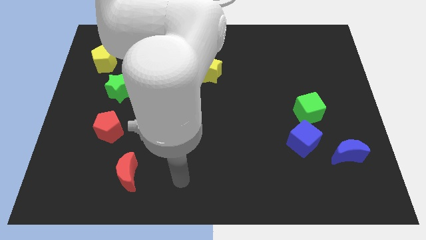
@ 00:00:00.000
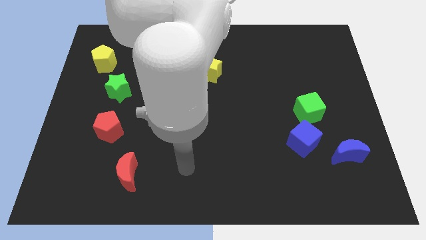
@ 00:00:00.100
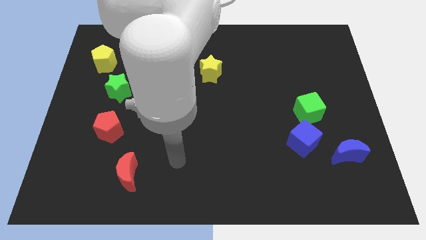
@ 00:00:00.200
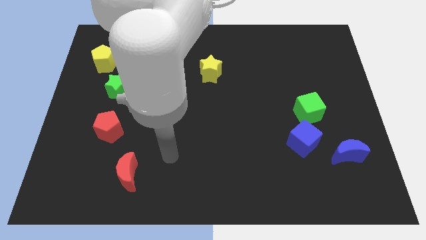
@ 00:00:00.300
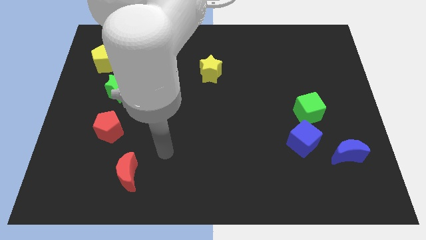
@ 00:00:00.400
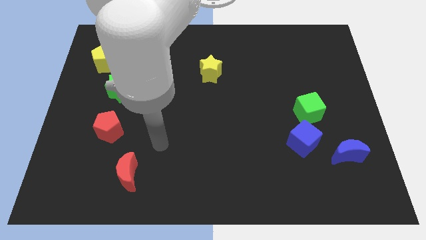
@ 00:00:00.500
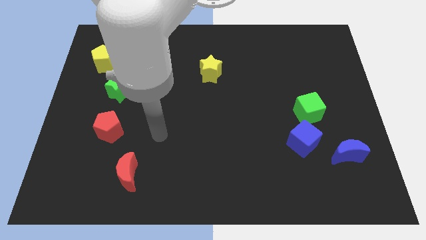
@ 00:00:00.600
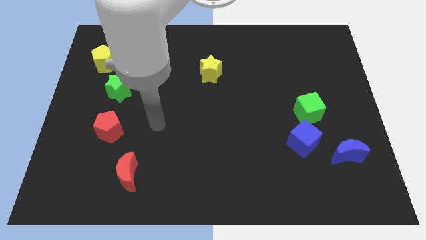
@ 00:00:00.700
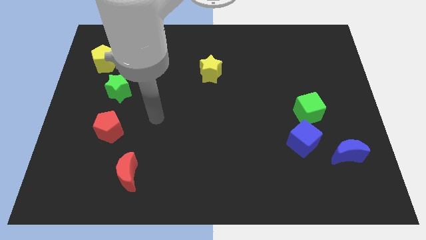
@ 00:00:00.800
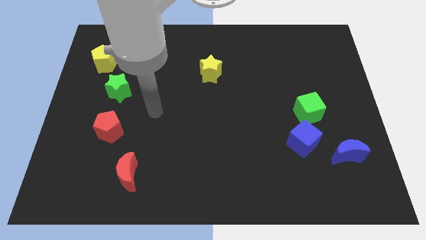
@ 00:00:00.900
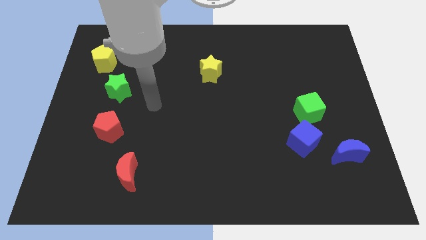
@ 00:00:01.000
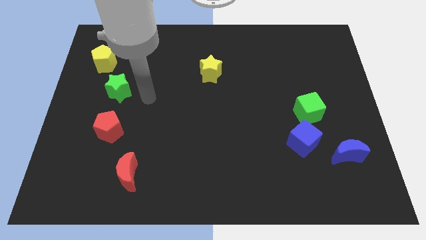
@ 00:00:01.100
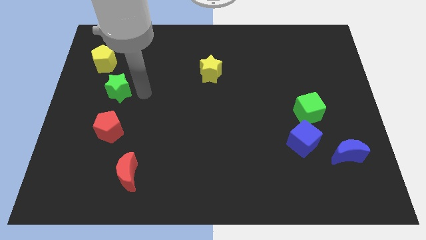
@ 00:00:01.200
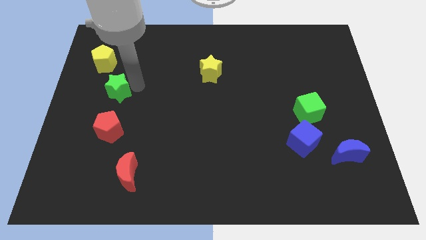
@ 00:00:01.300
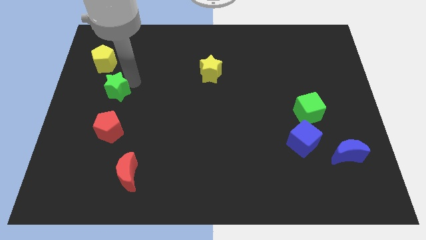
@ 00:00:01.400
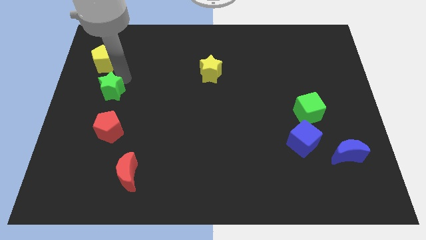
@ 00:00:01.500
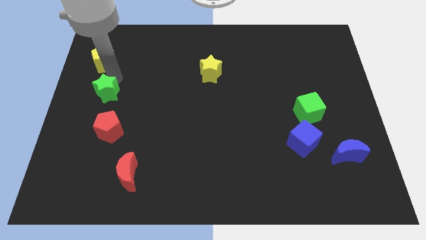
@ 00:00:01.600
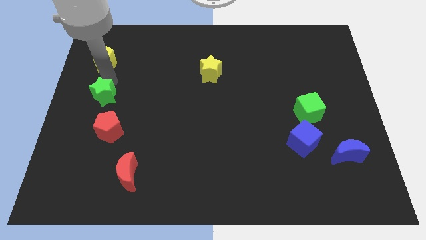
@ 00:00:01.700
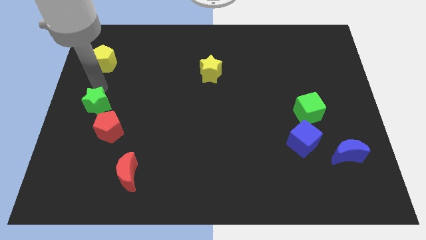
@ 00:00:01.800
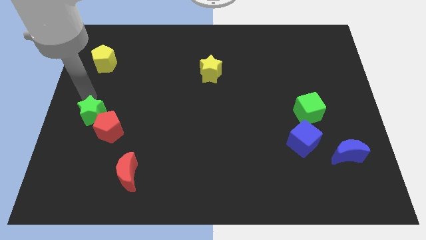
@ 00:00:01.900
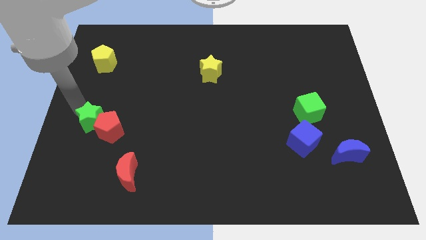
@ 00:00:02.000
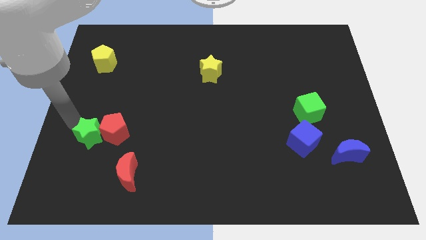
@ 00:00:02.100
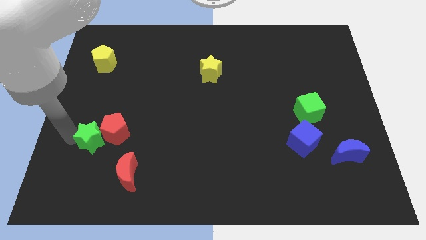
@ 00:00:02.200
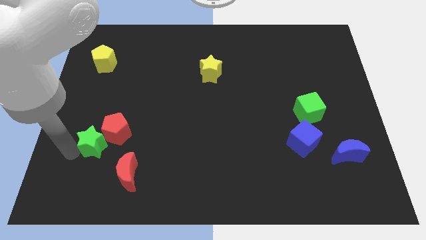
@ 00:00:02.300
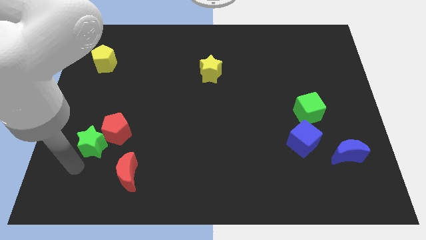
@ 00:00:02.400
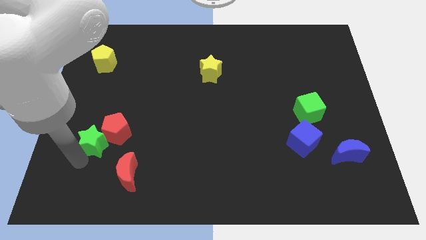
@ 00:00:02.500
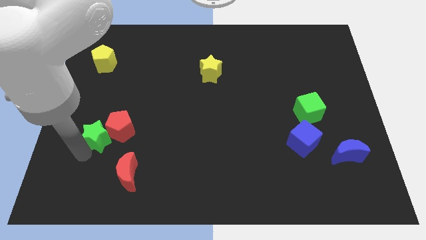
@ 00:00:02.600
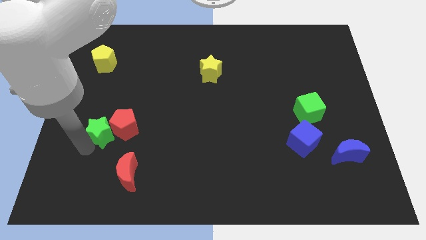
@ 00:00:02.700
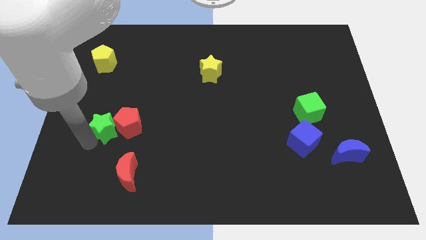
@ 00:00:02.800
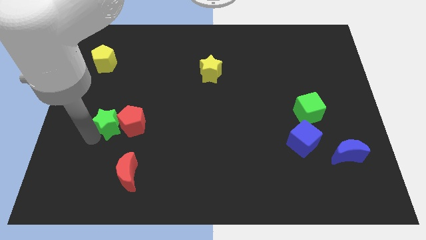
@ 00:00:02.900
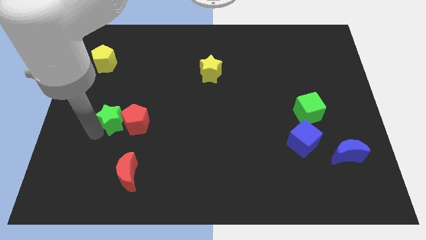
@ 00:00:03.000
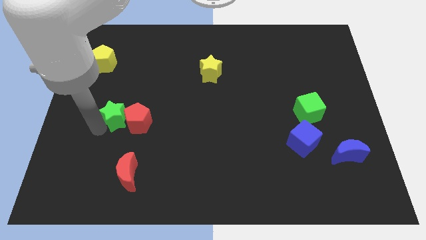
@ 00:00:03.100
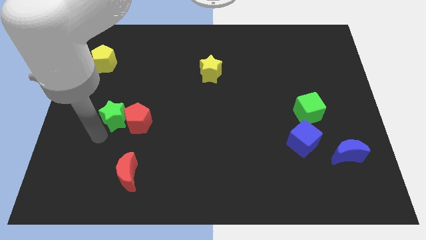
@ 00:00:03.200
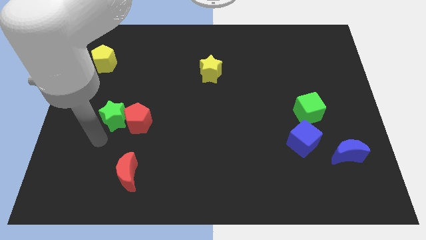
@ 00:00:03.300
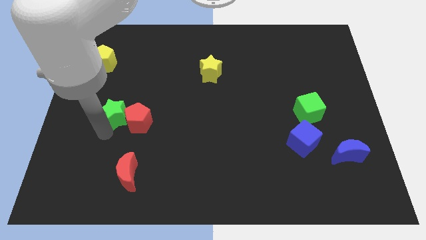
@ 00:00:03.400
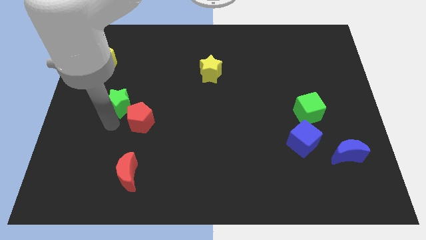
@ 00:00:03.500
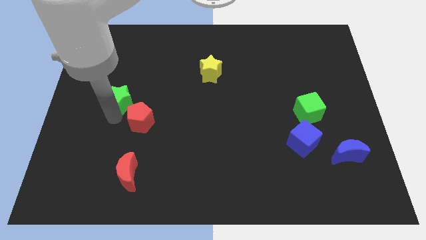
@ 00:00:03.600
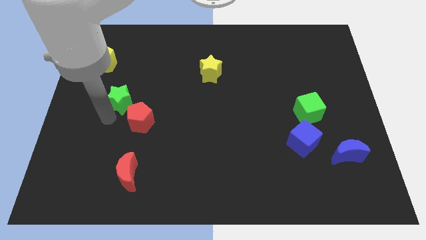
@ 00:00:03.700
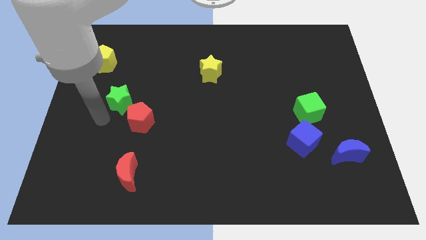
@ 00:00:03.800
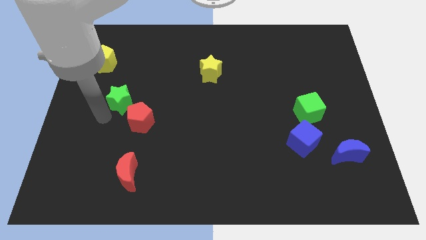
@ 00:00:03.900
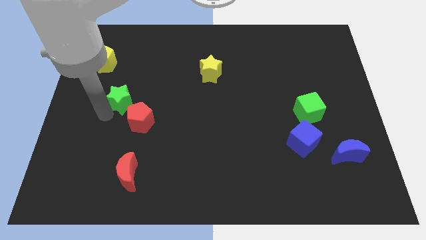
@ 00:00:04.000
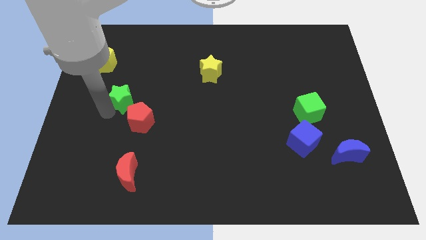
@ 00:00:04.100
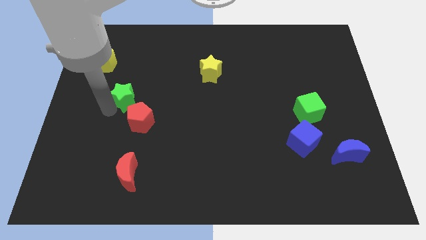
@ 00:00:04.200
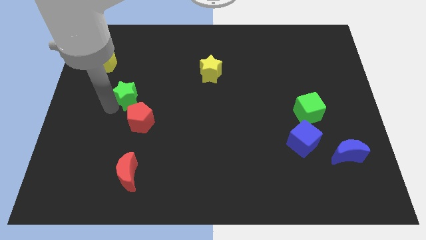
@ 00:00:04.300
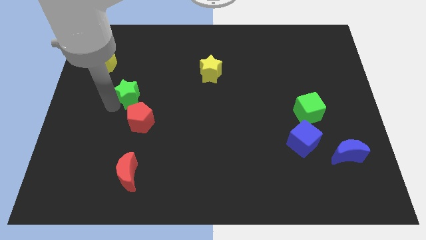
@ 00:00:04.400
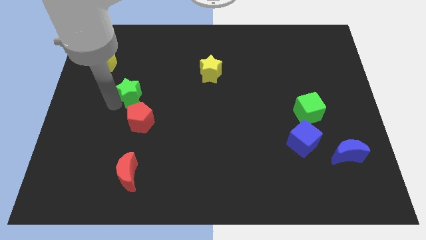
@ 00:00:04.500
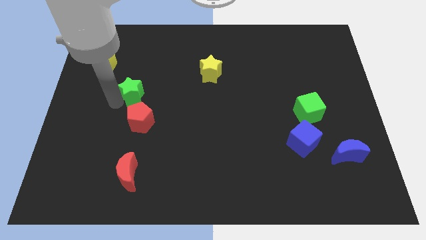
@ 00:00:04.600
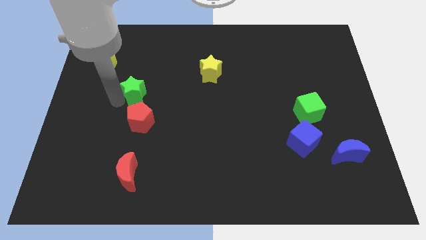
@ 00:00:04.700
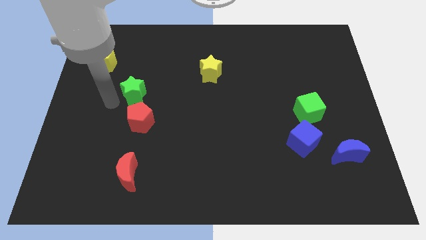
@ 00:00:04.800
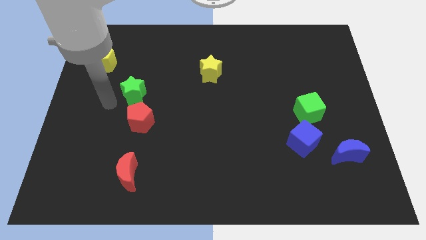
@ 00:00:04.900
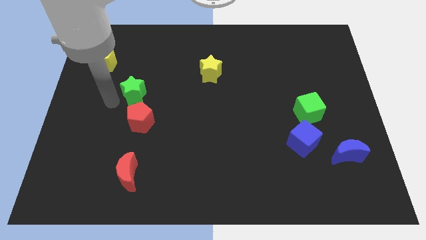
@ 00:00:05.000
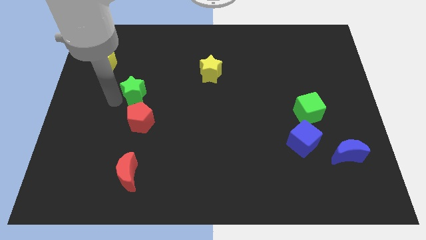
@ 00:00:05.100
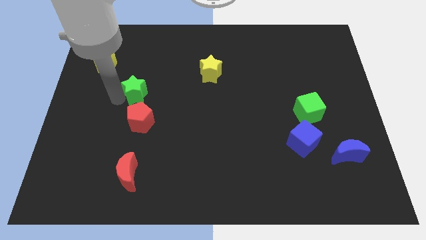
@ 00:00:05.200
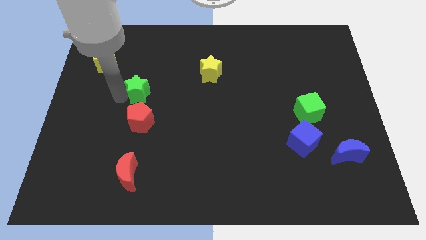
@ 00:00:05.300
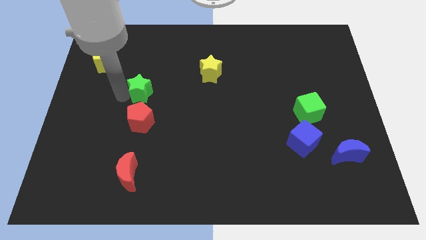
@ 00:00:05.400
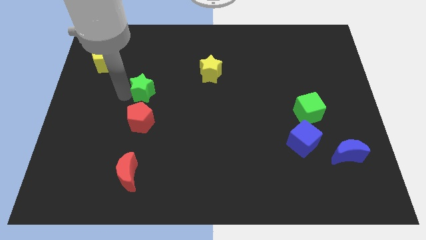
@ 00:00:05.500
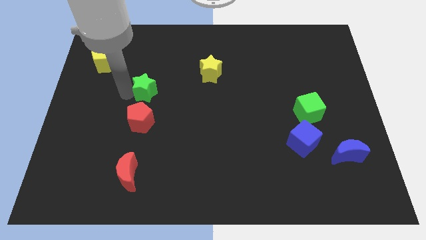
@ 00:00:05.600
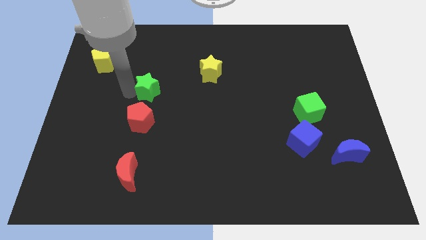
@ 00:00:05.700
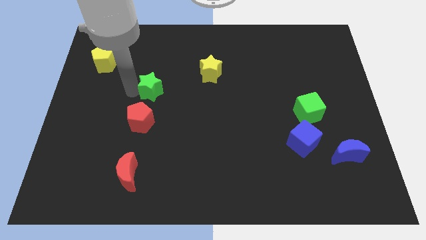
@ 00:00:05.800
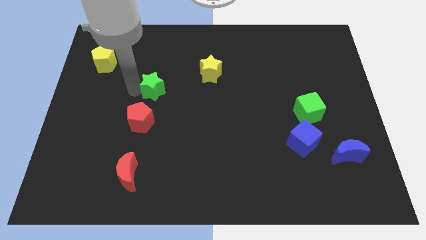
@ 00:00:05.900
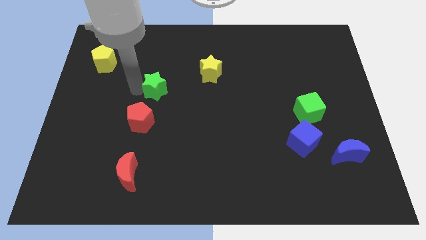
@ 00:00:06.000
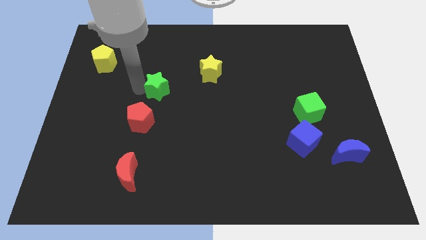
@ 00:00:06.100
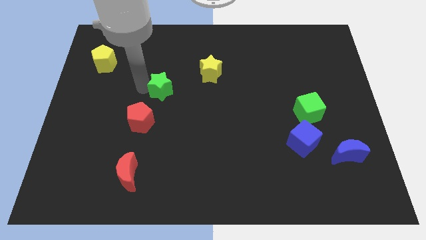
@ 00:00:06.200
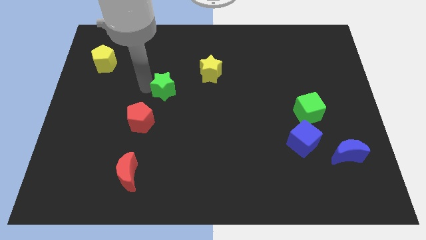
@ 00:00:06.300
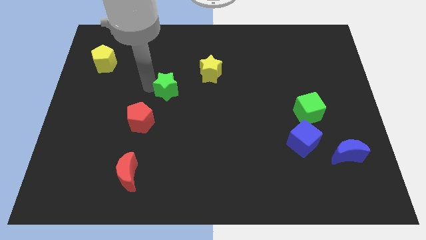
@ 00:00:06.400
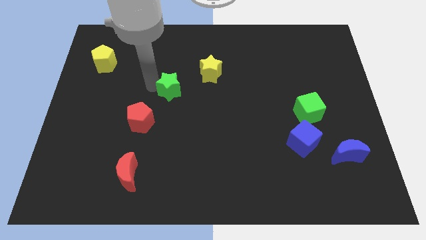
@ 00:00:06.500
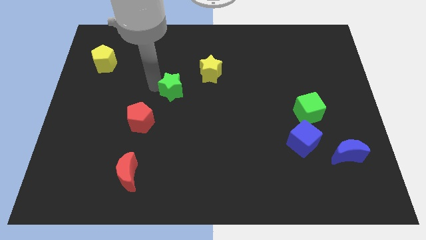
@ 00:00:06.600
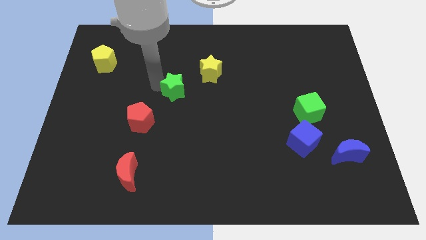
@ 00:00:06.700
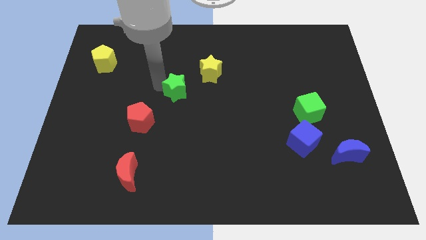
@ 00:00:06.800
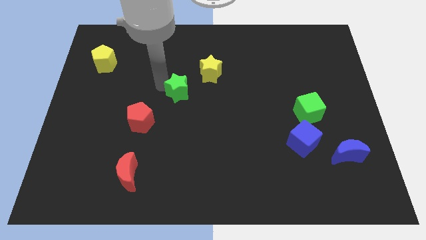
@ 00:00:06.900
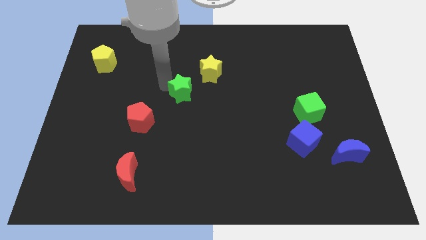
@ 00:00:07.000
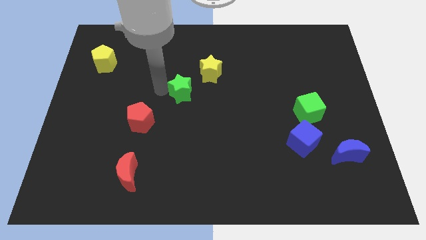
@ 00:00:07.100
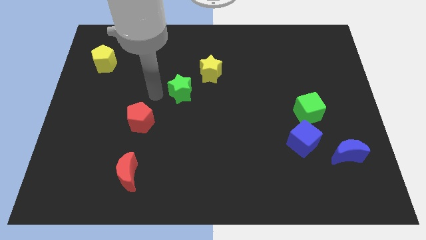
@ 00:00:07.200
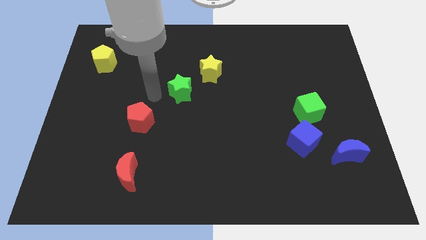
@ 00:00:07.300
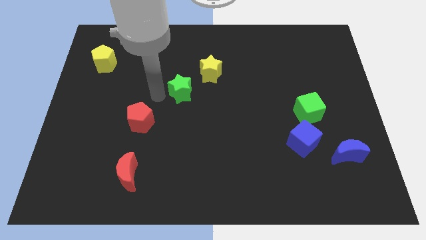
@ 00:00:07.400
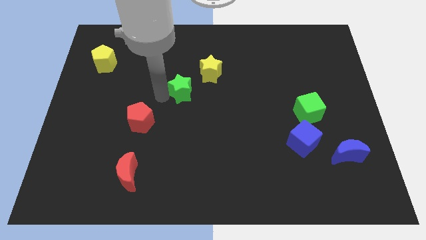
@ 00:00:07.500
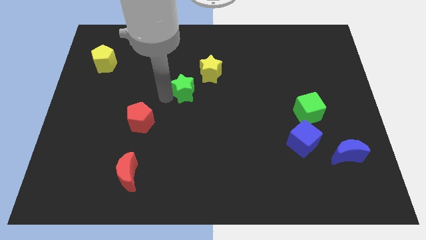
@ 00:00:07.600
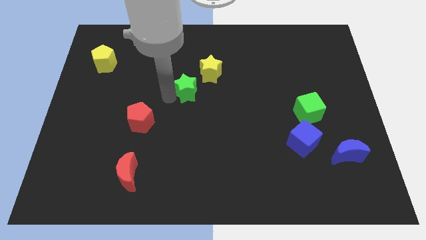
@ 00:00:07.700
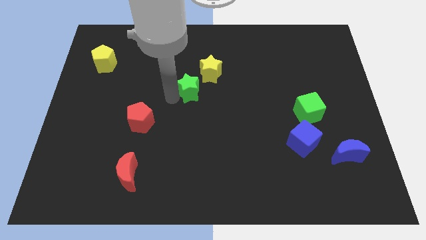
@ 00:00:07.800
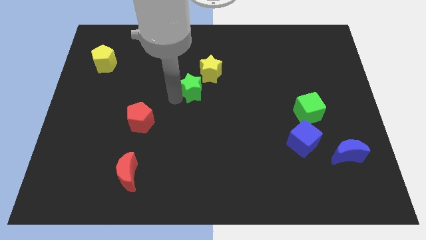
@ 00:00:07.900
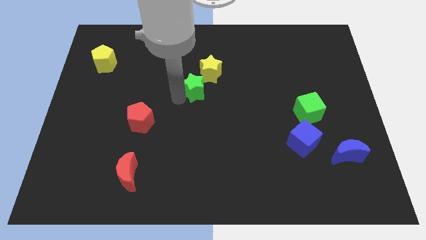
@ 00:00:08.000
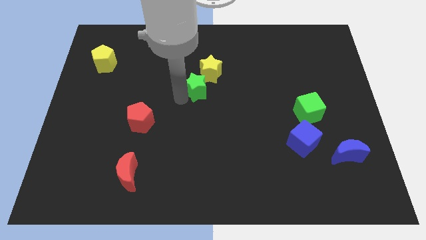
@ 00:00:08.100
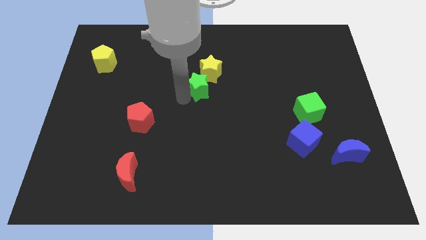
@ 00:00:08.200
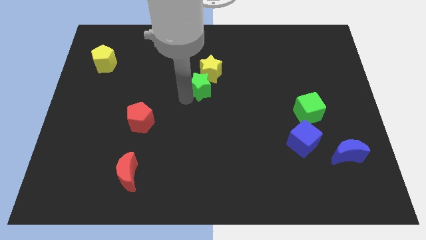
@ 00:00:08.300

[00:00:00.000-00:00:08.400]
slide the green star to the right
